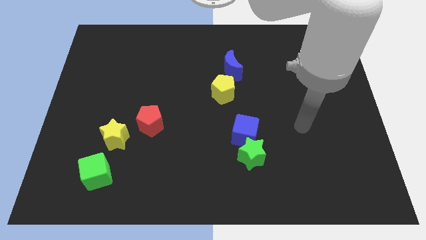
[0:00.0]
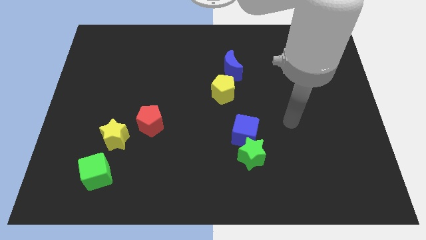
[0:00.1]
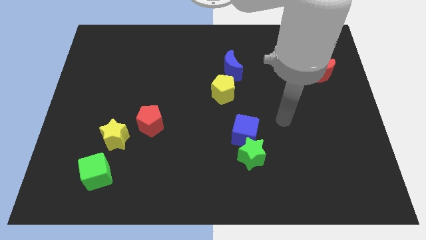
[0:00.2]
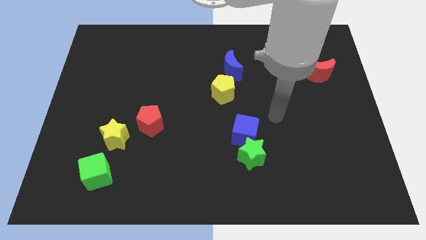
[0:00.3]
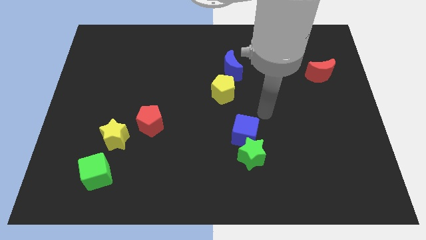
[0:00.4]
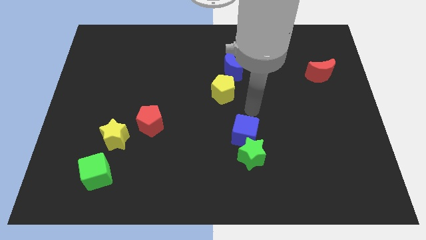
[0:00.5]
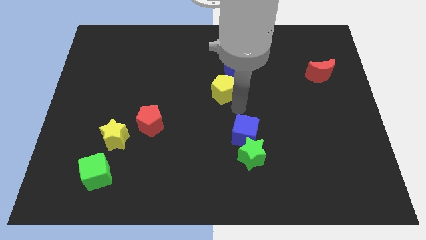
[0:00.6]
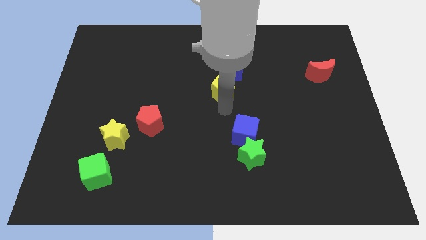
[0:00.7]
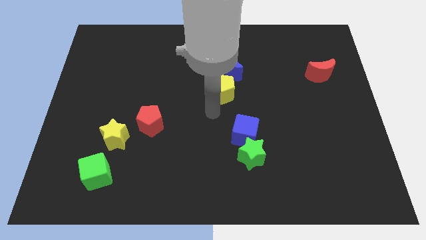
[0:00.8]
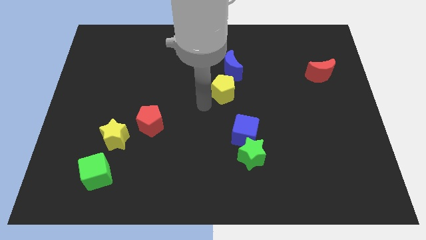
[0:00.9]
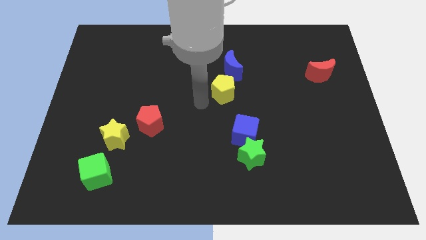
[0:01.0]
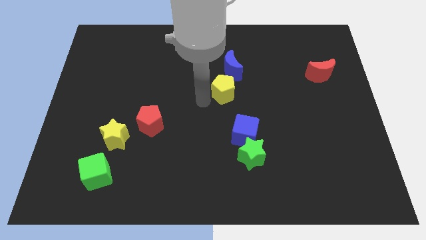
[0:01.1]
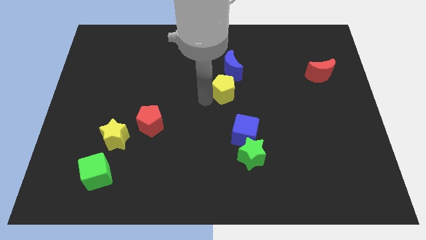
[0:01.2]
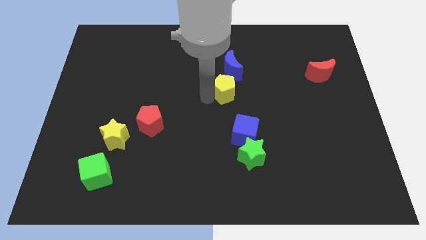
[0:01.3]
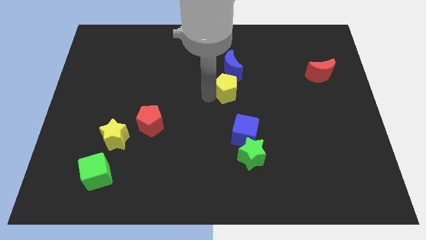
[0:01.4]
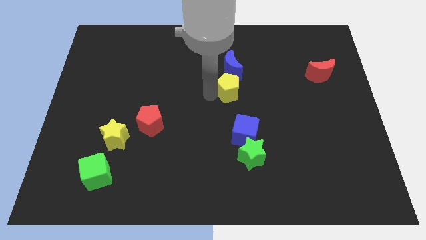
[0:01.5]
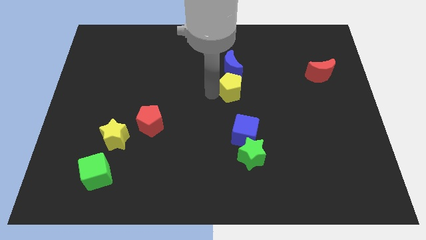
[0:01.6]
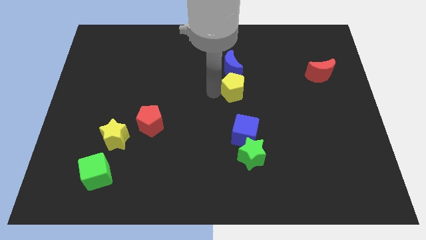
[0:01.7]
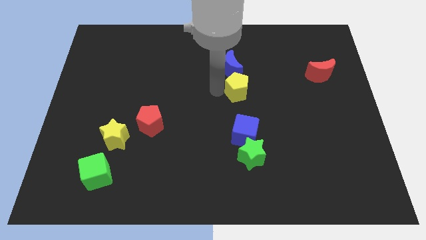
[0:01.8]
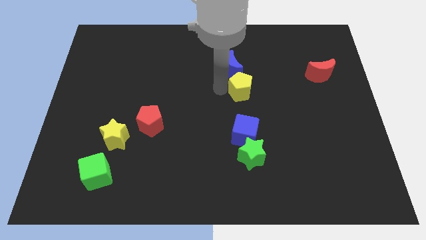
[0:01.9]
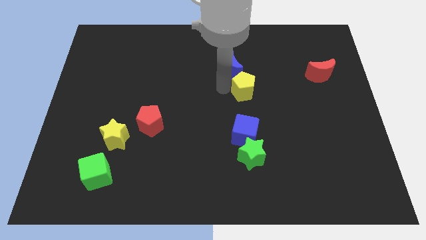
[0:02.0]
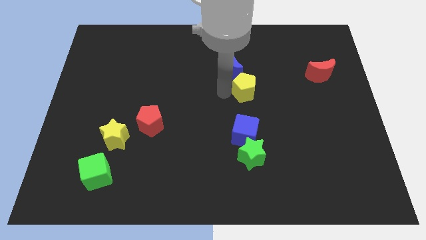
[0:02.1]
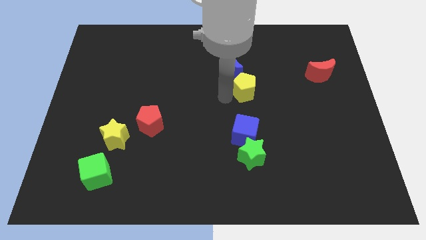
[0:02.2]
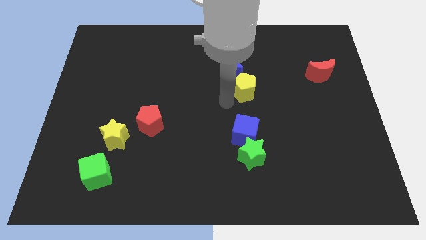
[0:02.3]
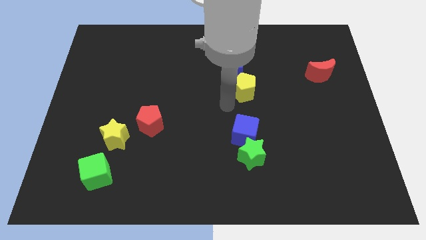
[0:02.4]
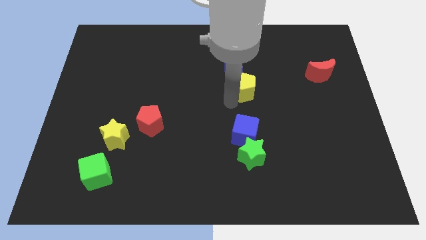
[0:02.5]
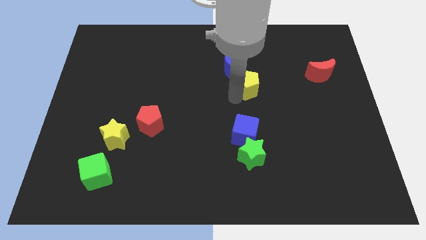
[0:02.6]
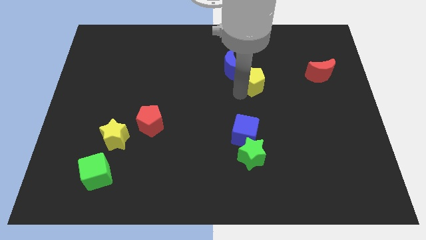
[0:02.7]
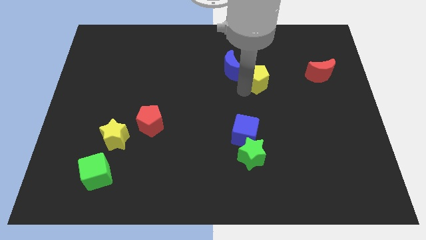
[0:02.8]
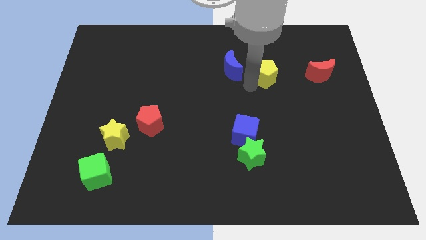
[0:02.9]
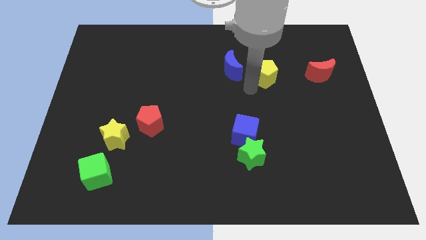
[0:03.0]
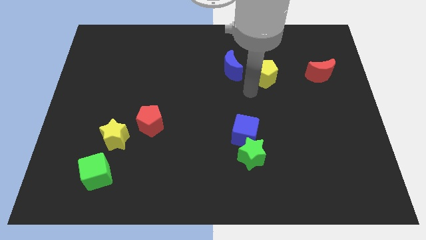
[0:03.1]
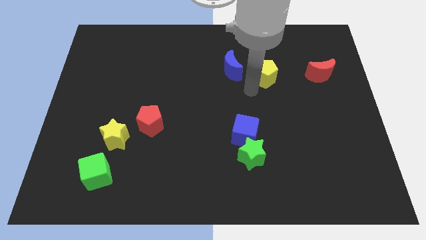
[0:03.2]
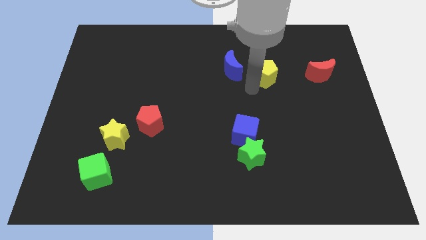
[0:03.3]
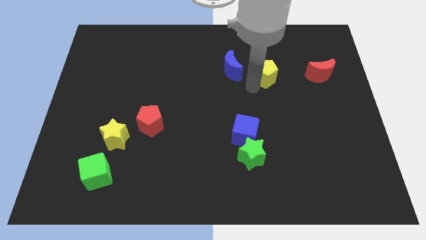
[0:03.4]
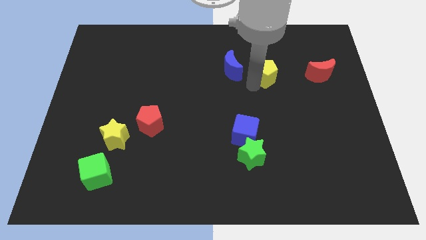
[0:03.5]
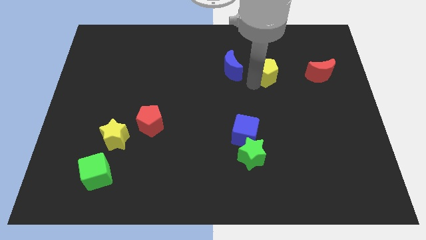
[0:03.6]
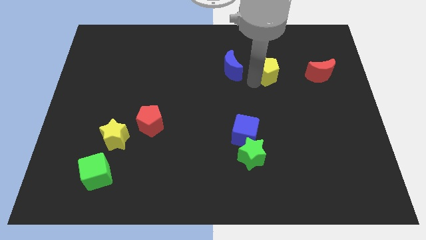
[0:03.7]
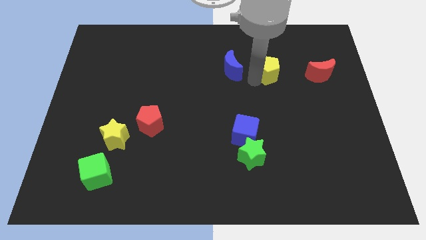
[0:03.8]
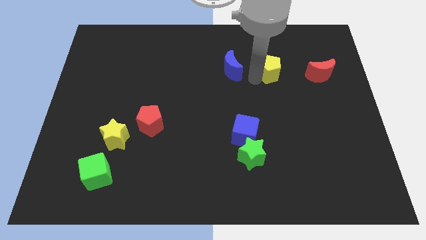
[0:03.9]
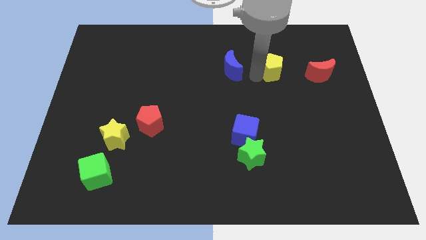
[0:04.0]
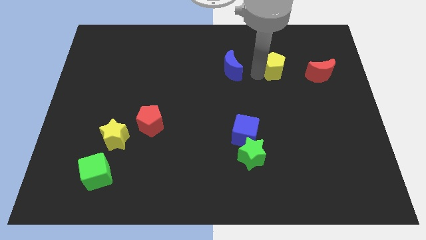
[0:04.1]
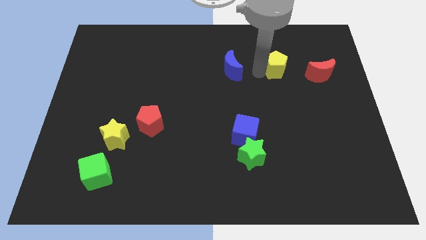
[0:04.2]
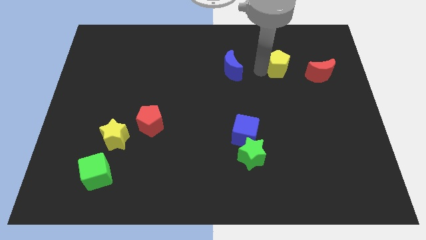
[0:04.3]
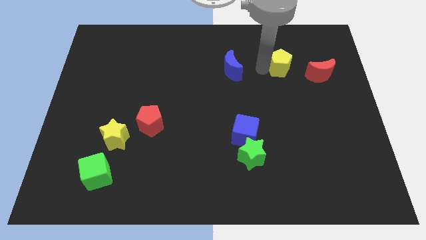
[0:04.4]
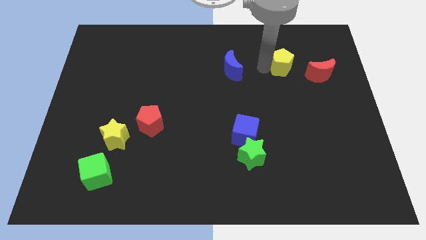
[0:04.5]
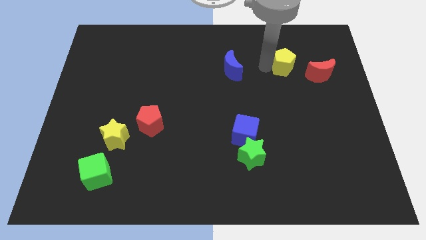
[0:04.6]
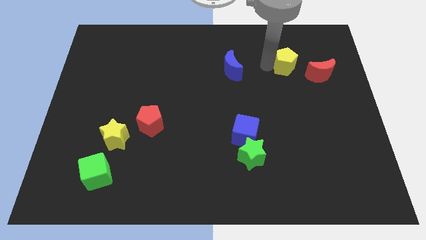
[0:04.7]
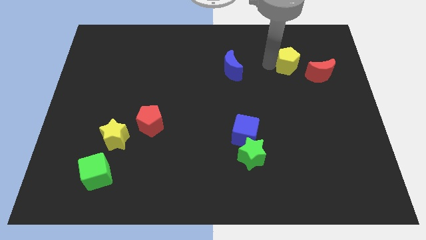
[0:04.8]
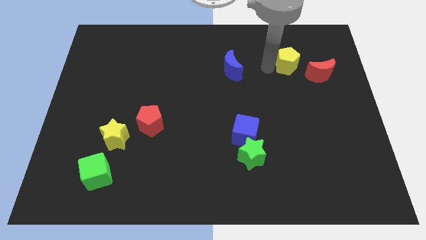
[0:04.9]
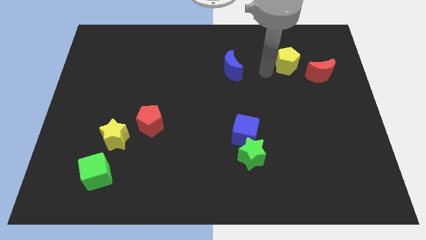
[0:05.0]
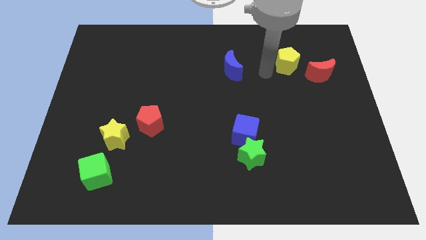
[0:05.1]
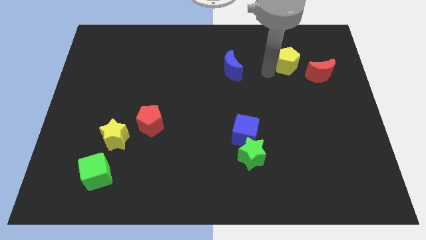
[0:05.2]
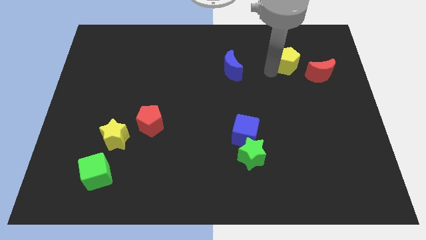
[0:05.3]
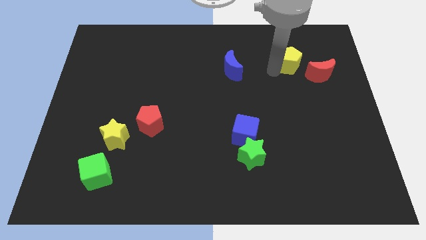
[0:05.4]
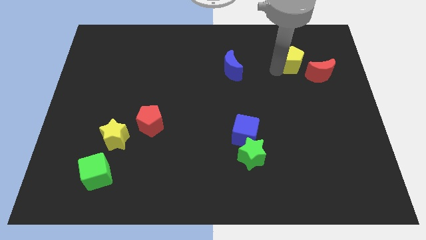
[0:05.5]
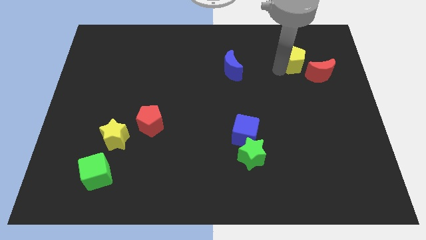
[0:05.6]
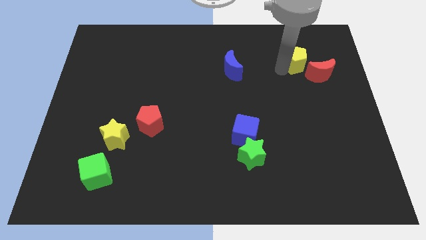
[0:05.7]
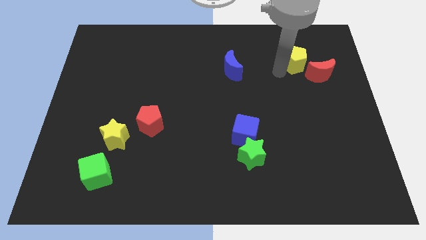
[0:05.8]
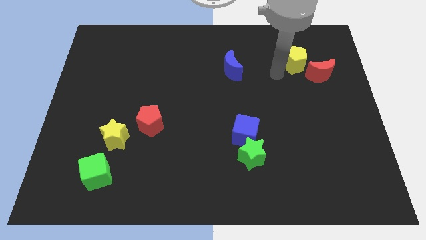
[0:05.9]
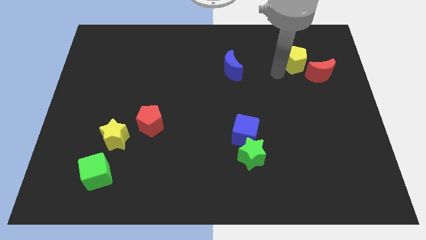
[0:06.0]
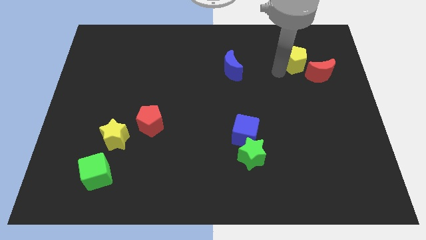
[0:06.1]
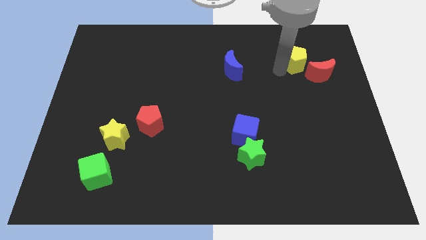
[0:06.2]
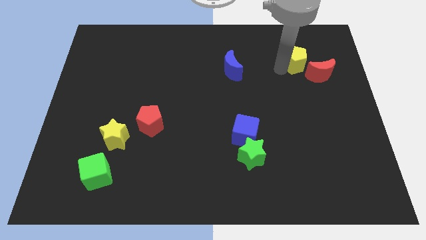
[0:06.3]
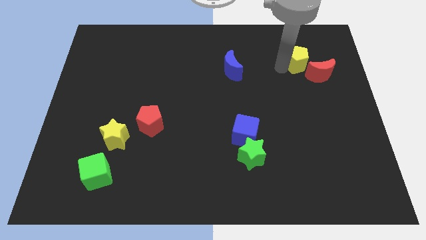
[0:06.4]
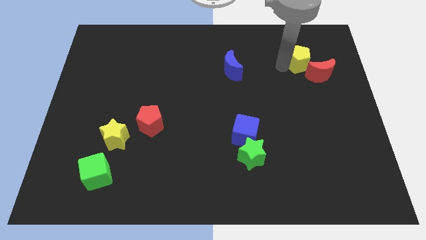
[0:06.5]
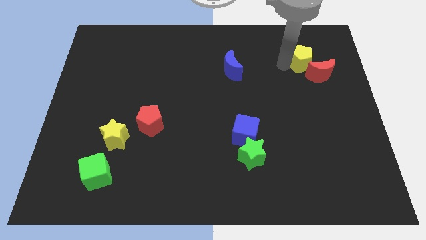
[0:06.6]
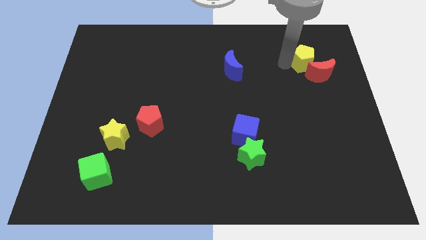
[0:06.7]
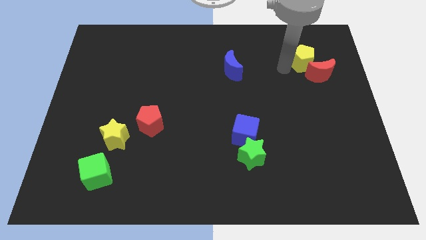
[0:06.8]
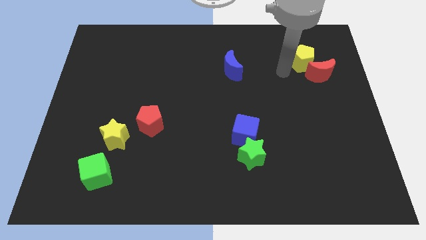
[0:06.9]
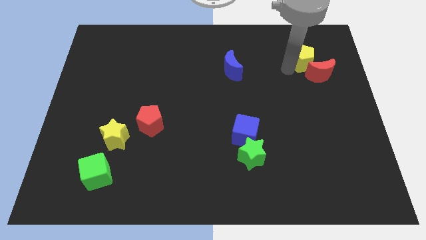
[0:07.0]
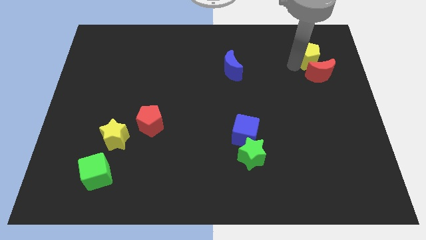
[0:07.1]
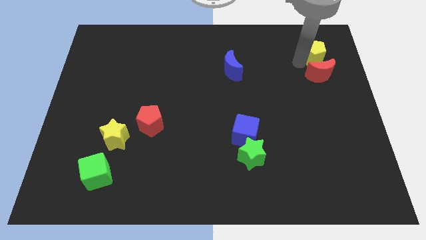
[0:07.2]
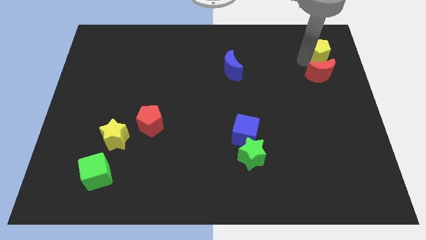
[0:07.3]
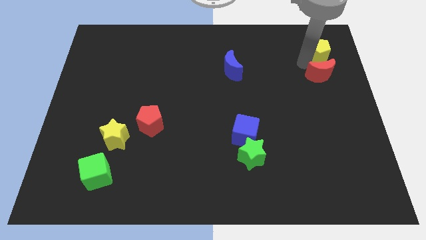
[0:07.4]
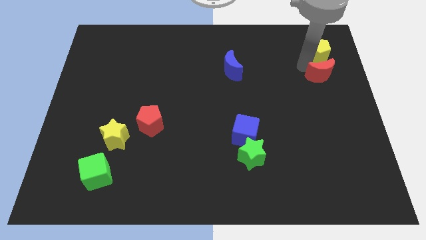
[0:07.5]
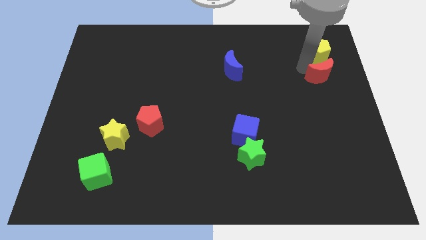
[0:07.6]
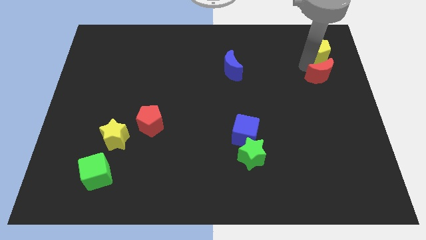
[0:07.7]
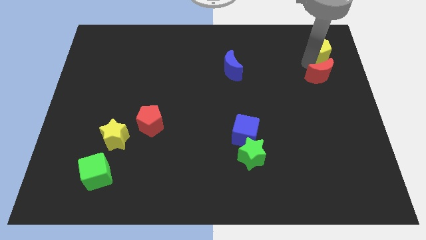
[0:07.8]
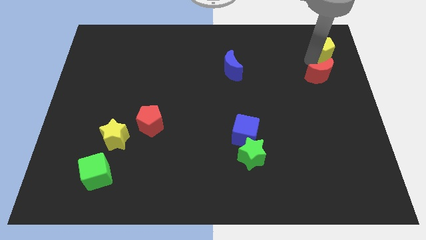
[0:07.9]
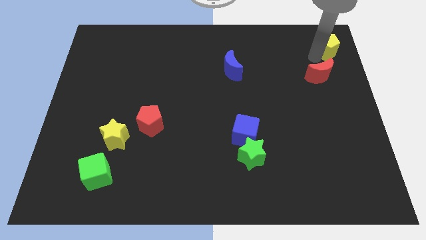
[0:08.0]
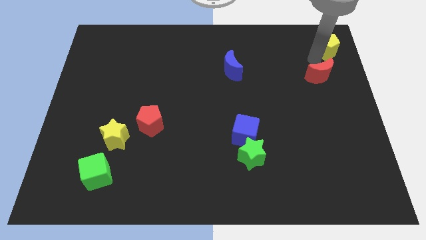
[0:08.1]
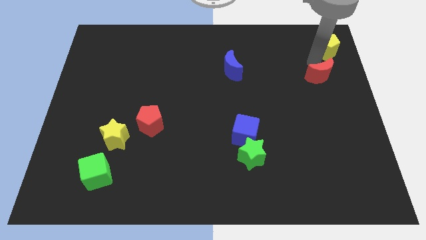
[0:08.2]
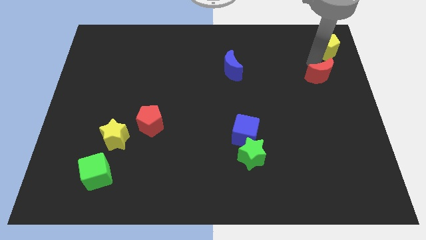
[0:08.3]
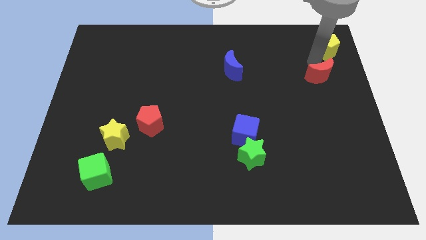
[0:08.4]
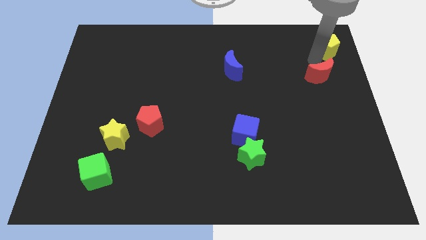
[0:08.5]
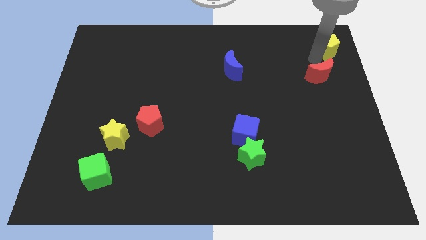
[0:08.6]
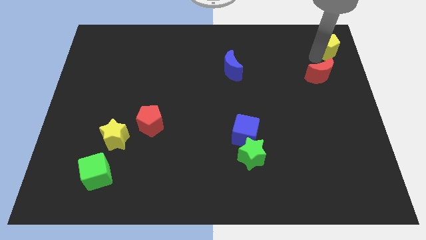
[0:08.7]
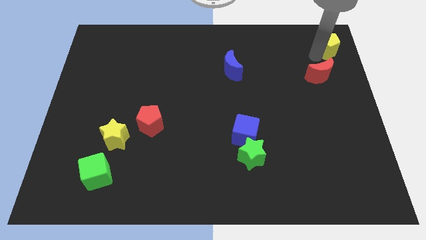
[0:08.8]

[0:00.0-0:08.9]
move the yellow pentagon to the top right corner
